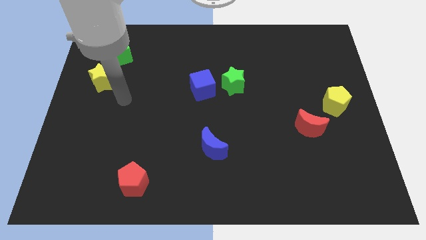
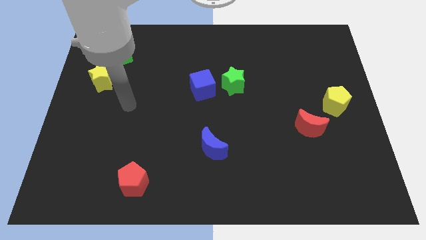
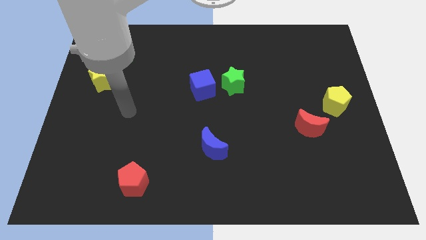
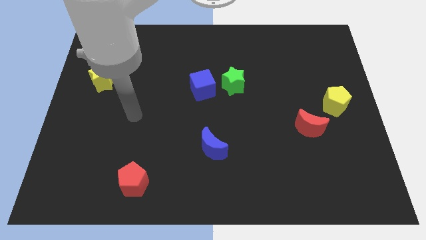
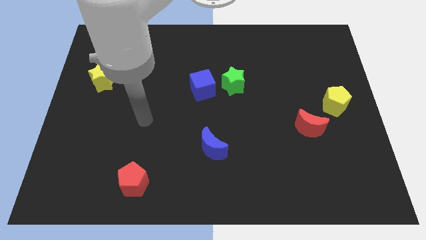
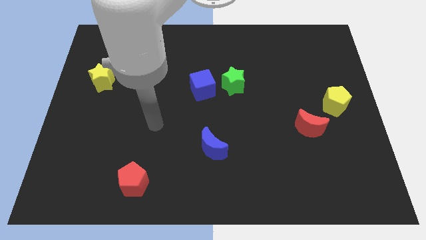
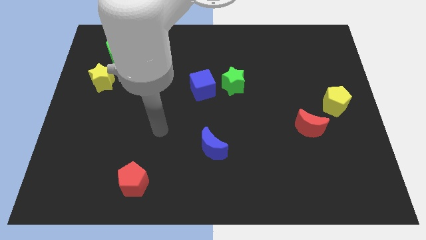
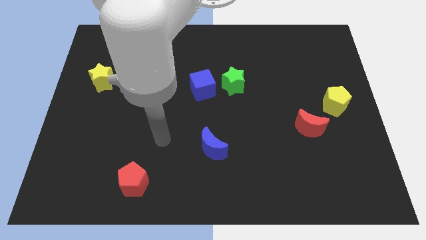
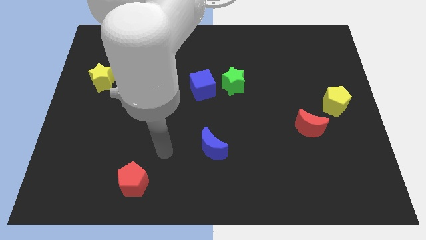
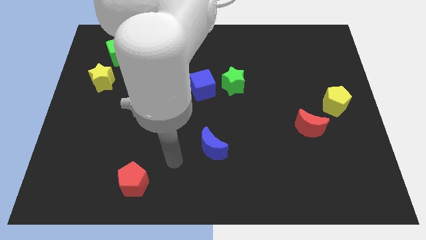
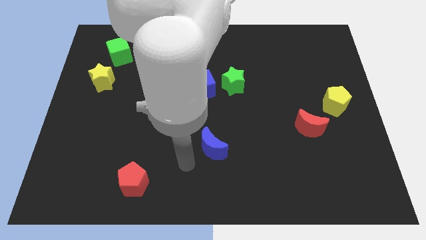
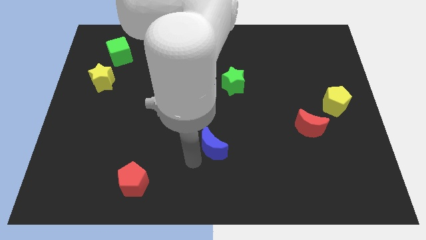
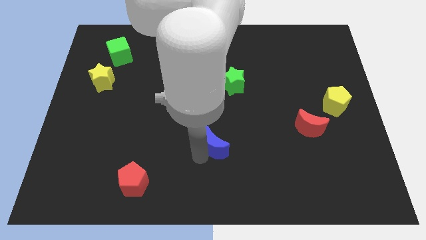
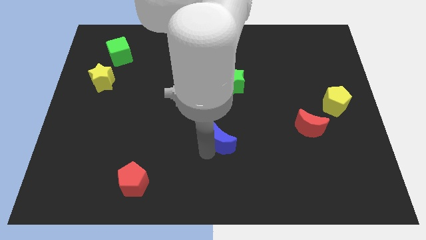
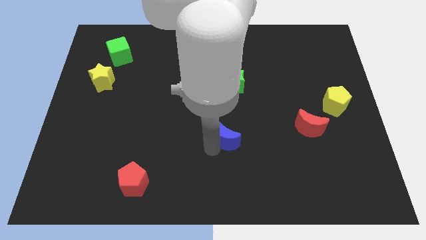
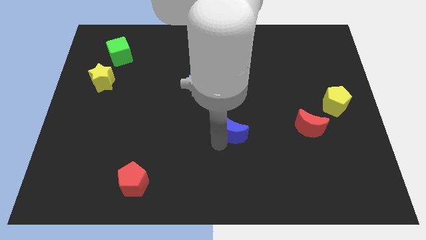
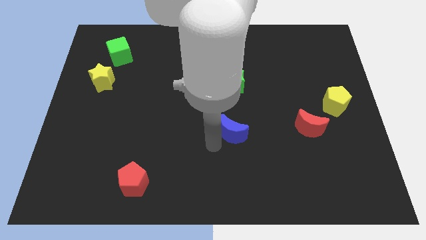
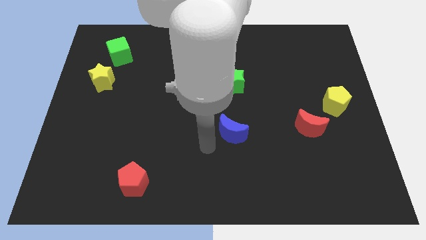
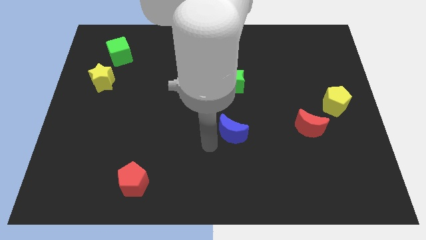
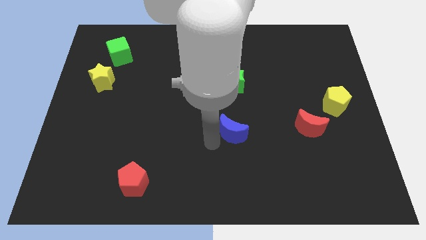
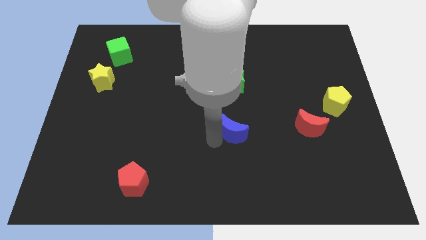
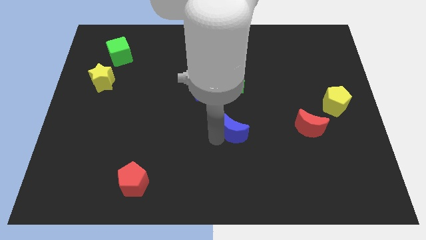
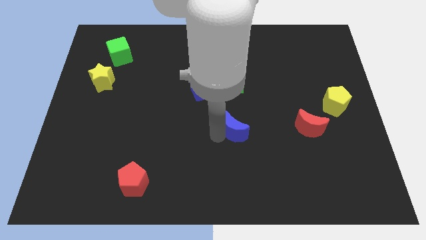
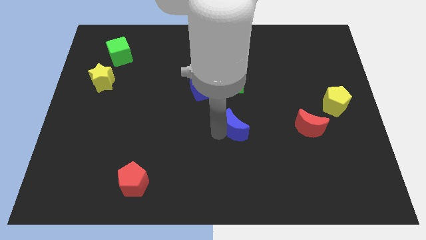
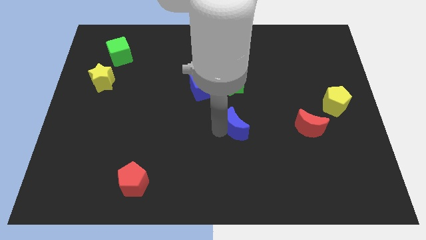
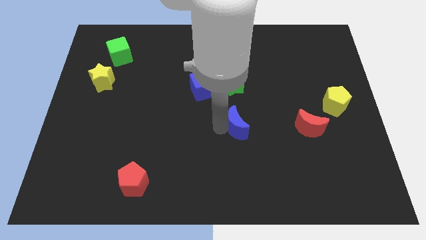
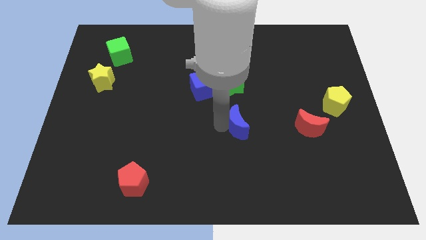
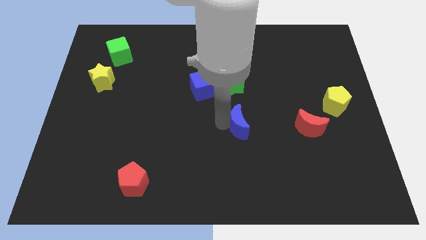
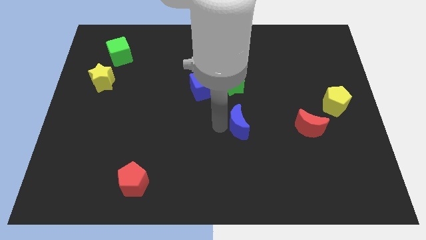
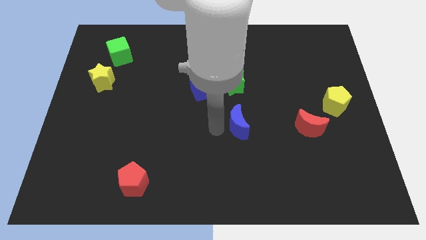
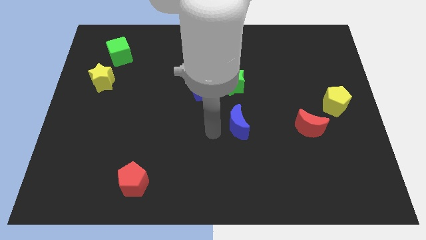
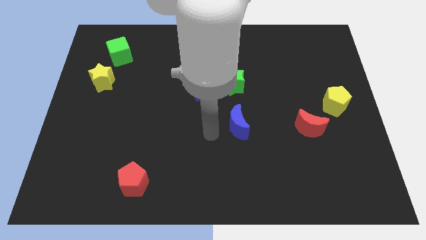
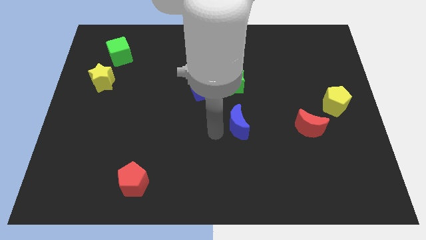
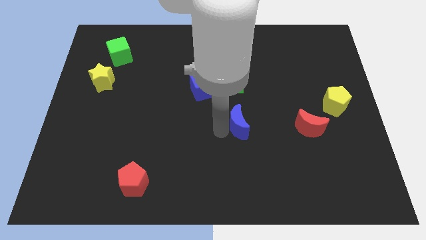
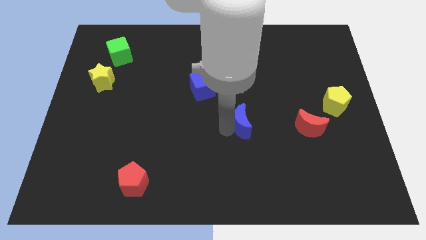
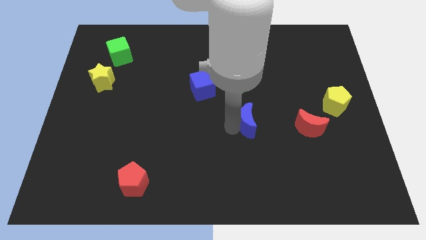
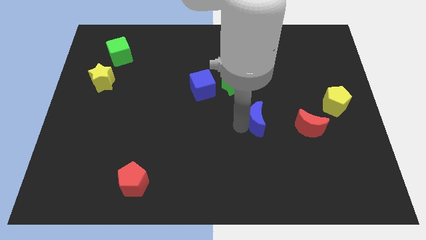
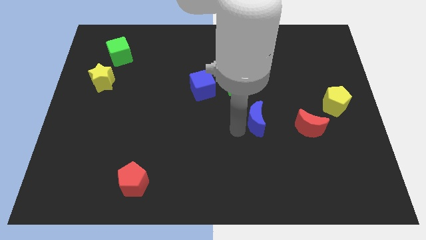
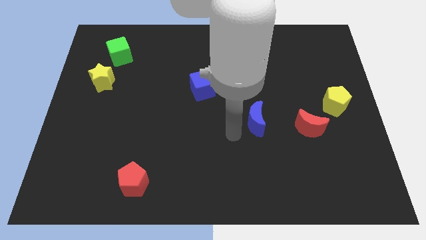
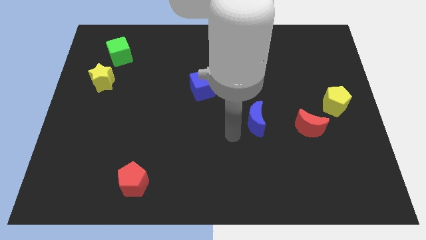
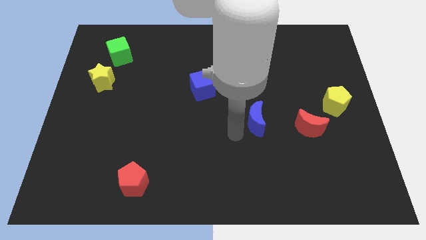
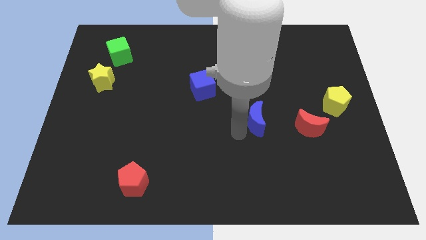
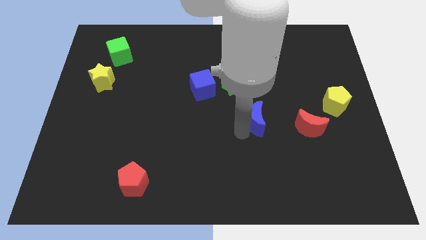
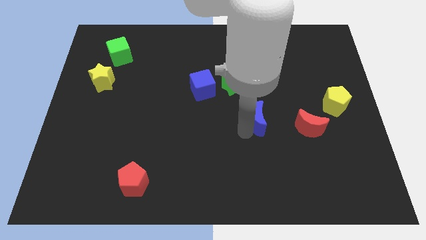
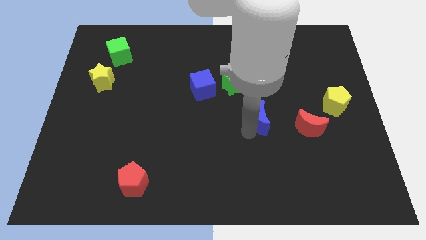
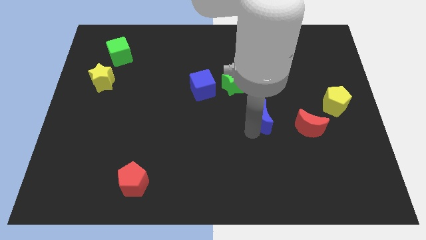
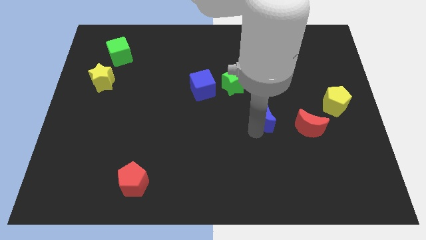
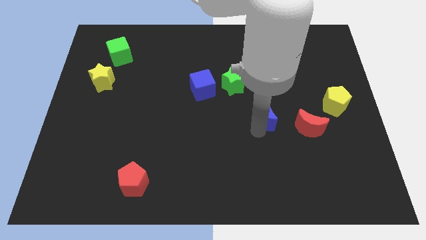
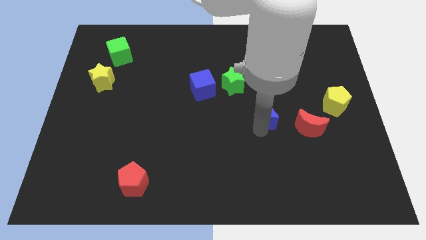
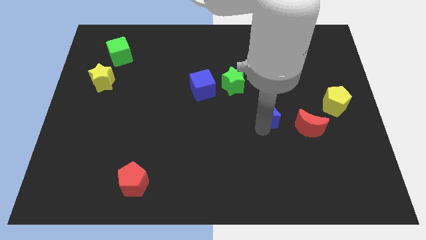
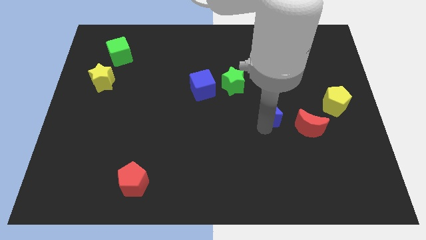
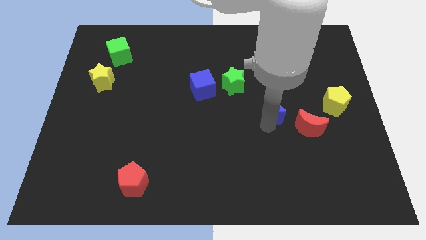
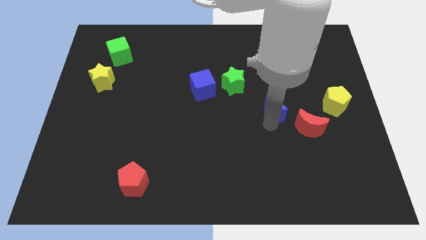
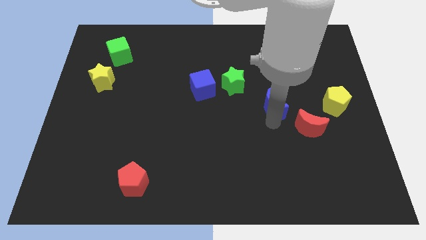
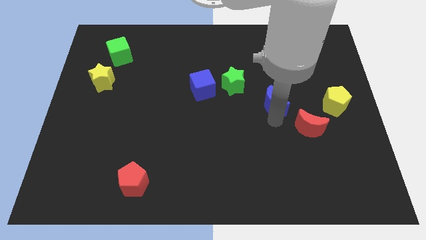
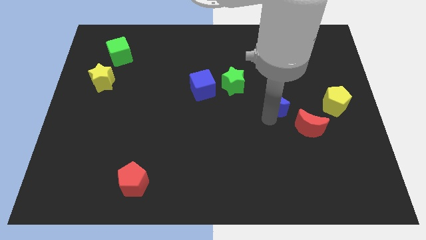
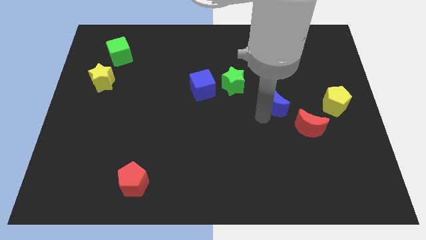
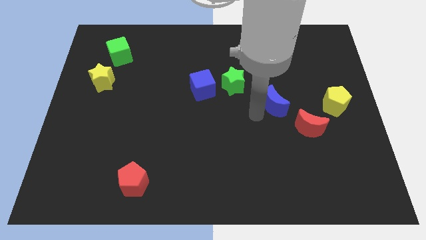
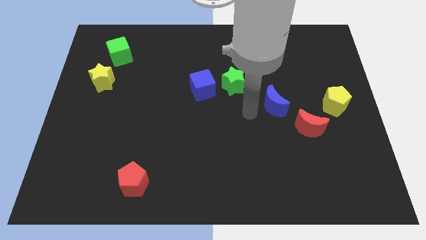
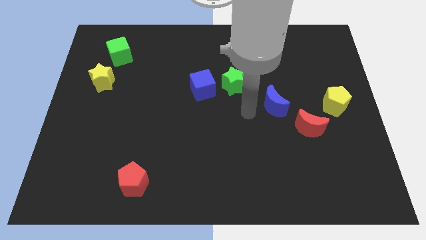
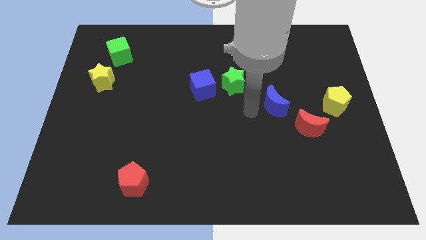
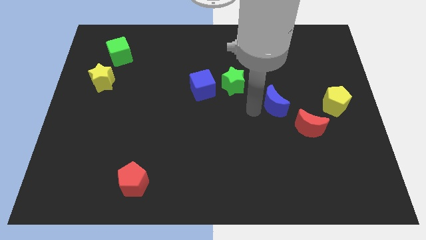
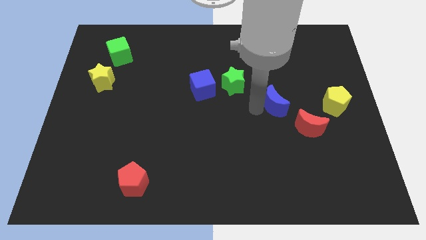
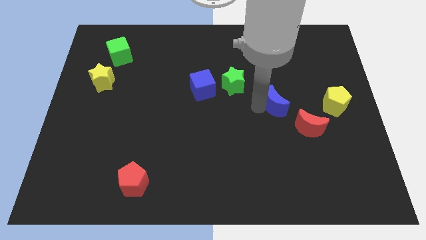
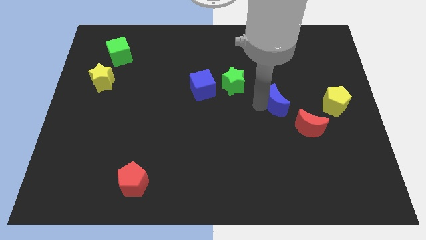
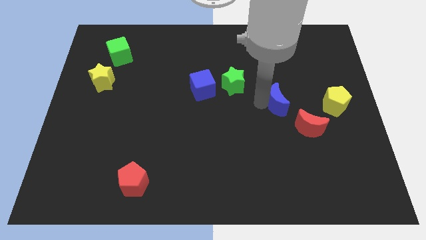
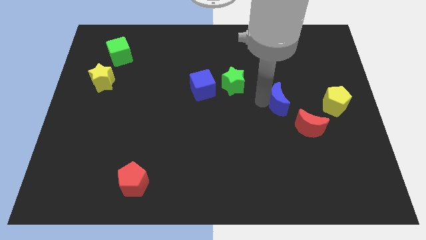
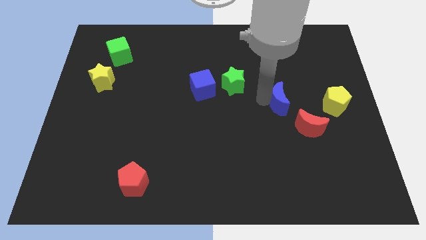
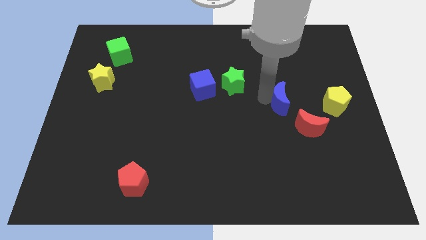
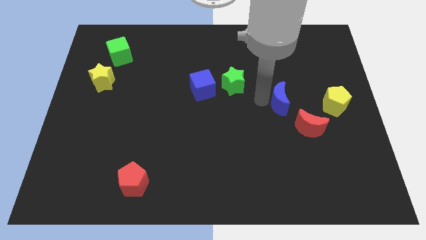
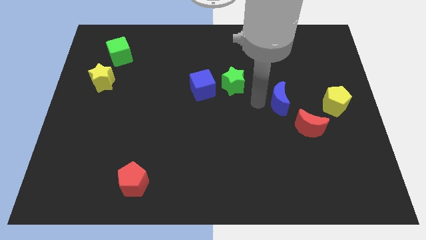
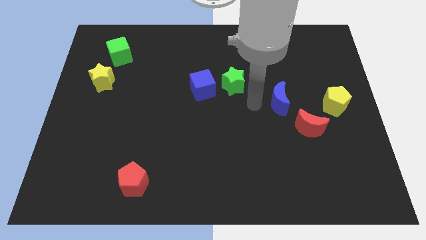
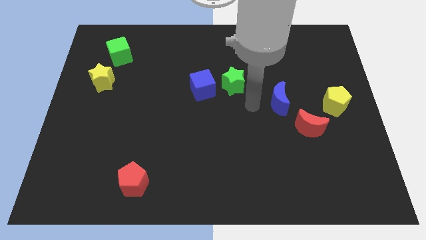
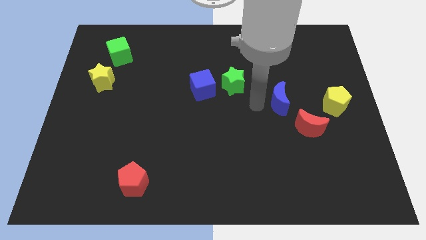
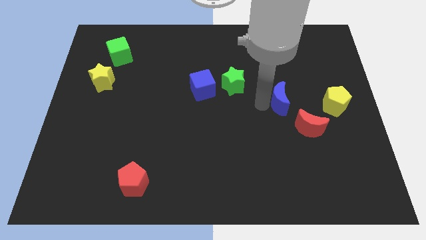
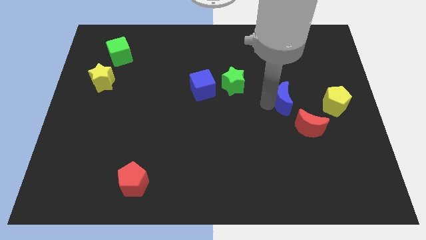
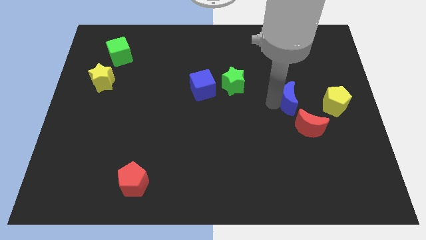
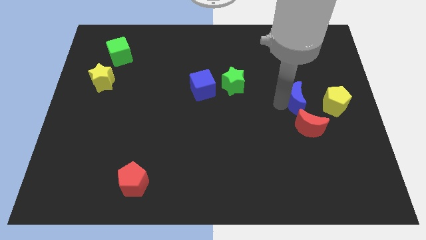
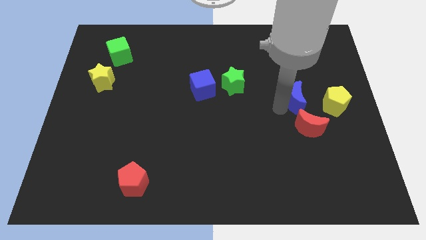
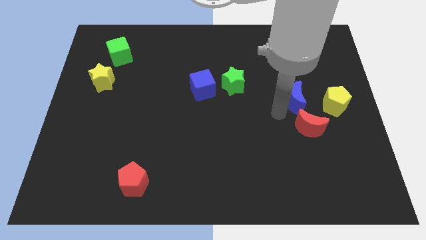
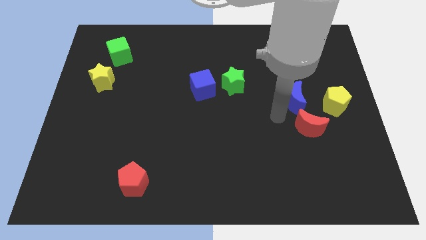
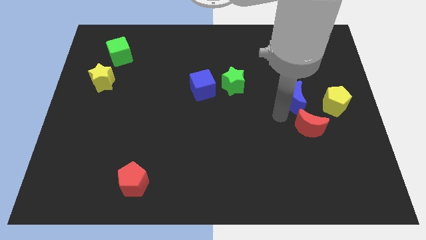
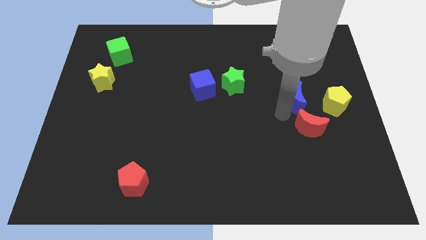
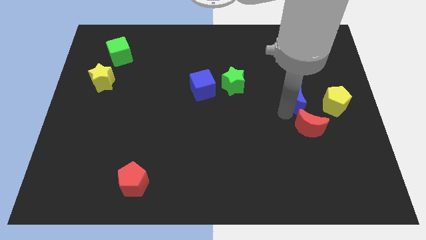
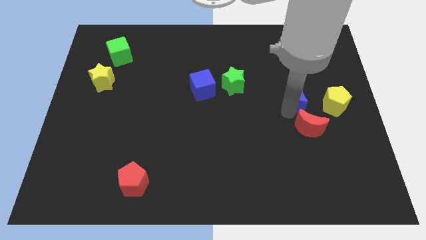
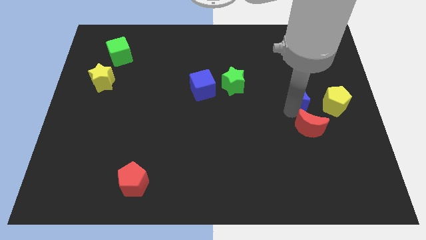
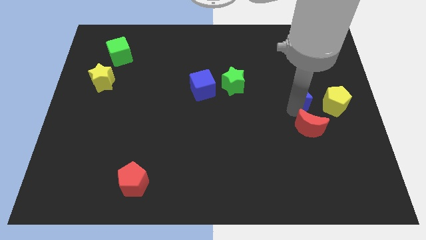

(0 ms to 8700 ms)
push the blue moon to the top left side of the yellow pentagon
